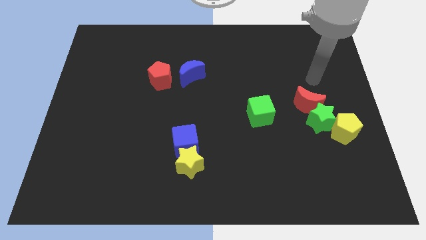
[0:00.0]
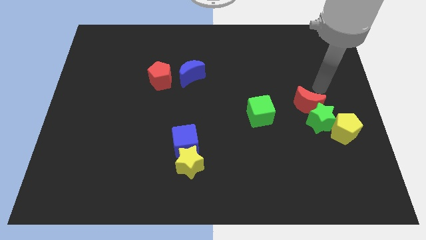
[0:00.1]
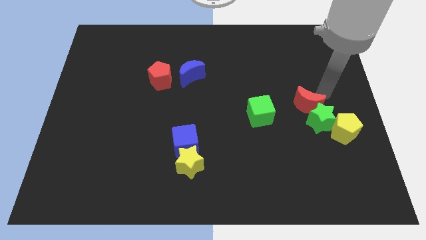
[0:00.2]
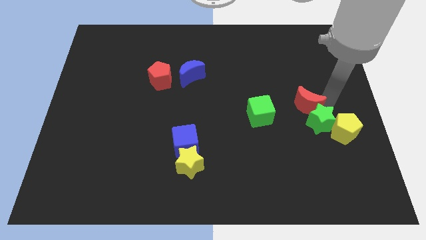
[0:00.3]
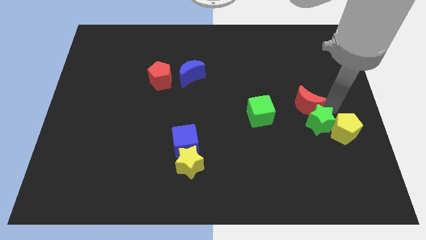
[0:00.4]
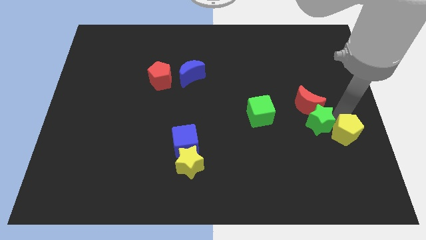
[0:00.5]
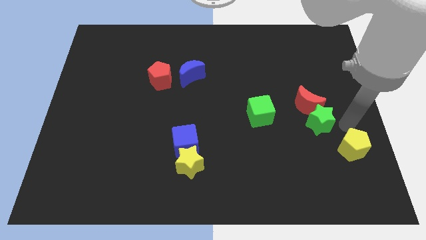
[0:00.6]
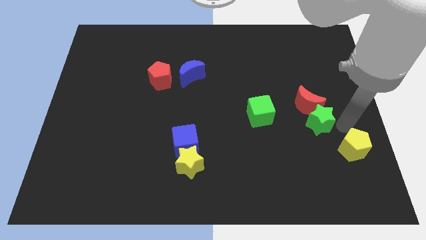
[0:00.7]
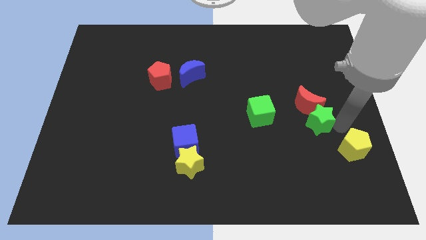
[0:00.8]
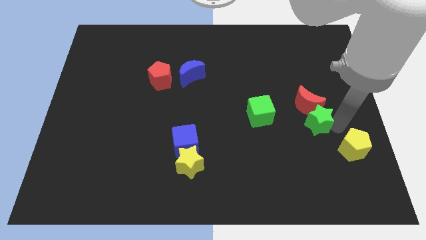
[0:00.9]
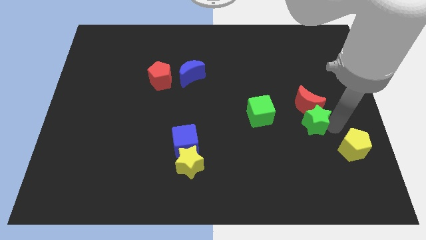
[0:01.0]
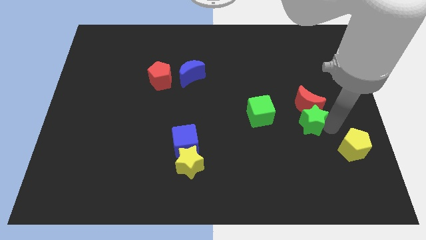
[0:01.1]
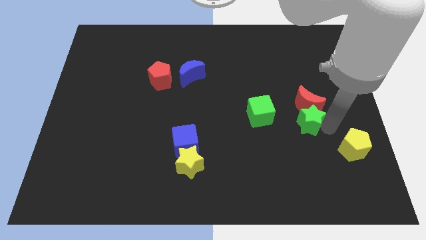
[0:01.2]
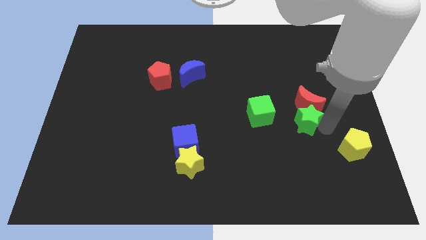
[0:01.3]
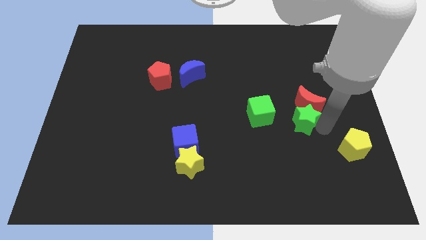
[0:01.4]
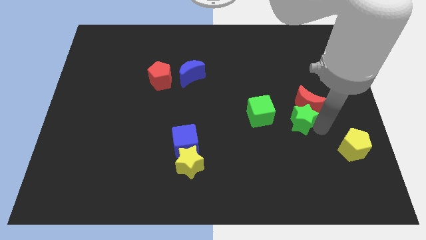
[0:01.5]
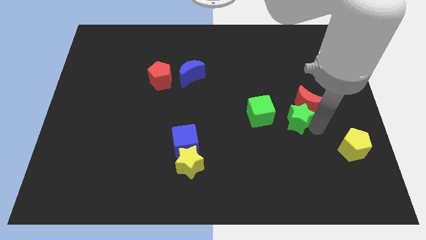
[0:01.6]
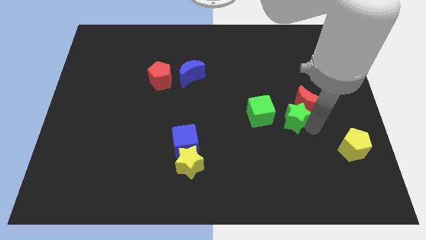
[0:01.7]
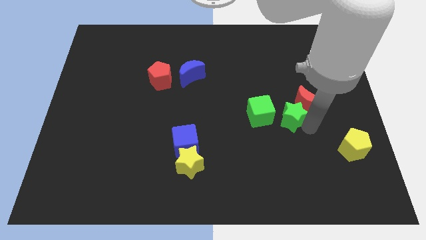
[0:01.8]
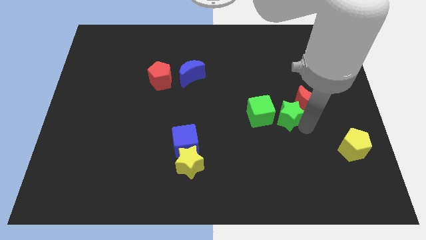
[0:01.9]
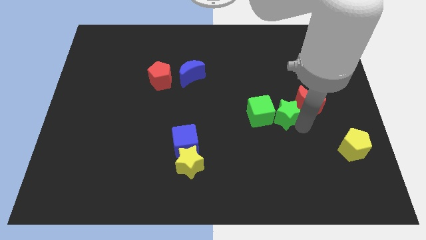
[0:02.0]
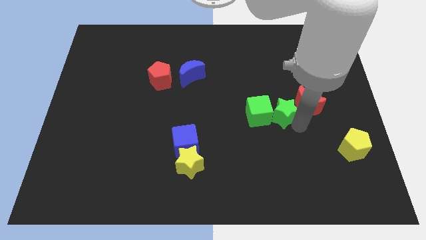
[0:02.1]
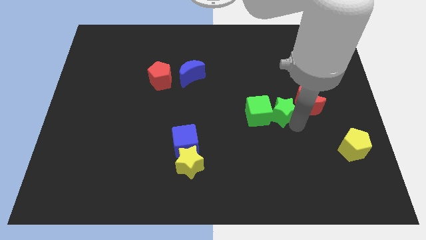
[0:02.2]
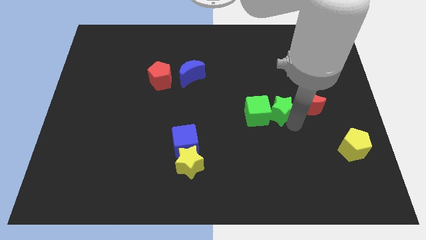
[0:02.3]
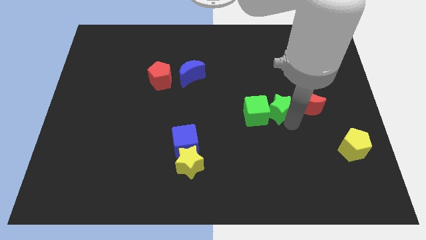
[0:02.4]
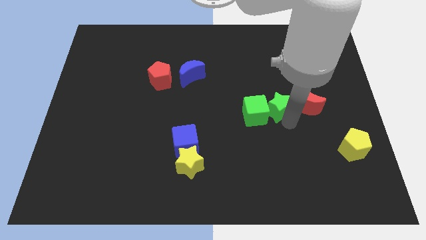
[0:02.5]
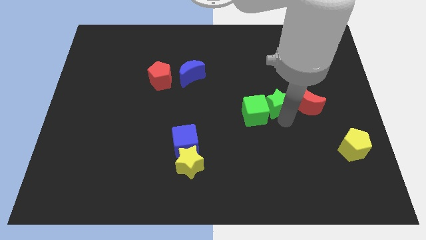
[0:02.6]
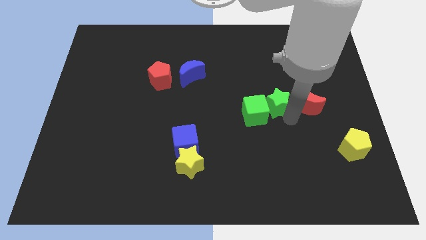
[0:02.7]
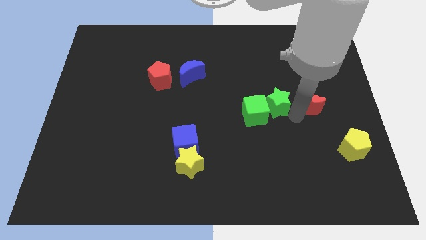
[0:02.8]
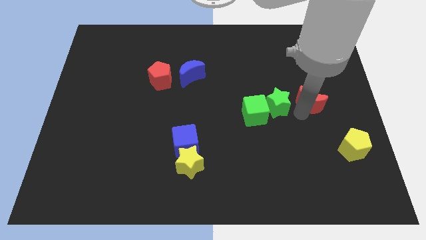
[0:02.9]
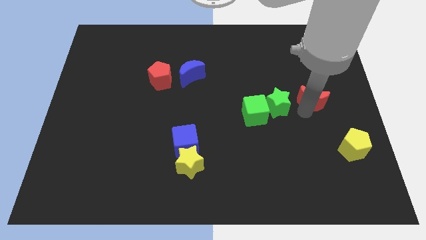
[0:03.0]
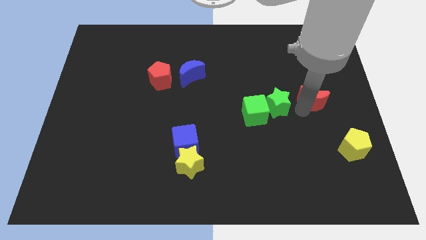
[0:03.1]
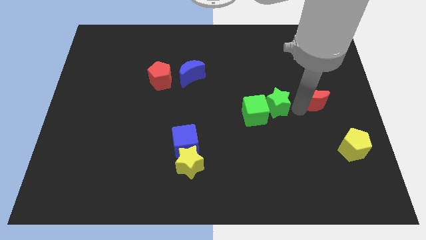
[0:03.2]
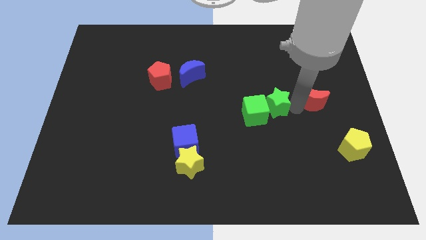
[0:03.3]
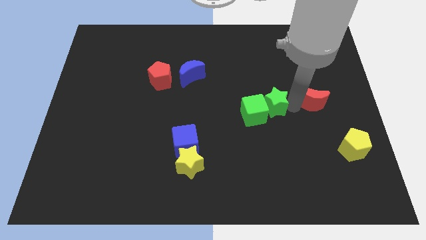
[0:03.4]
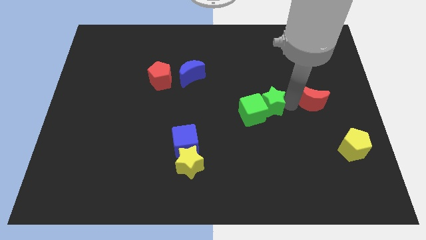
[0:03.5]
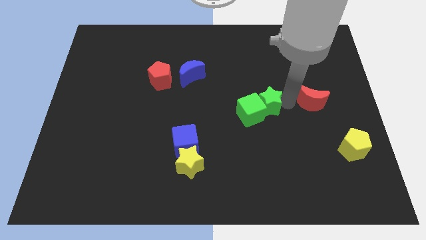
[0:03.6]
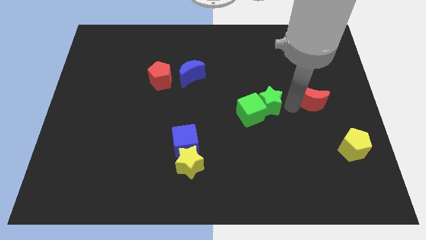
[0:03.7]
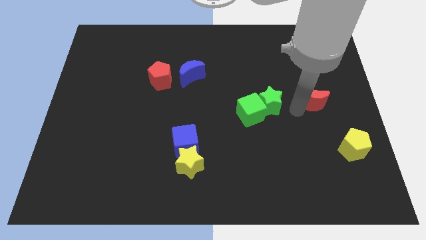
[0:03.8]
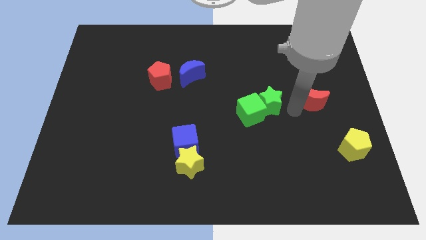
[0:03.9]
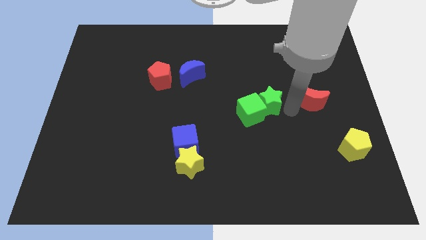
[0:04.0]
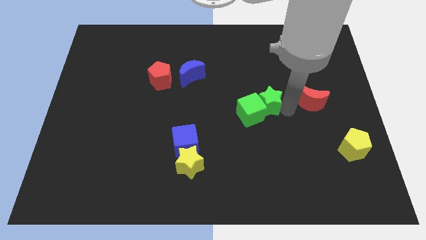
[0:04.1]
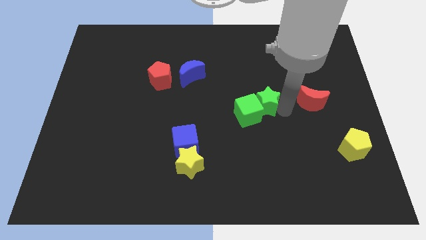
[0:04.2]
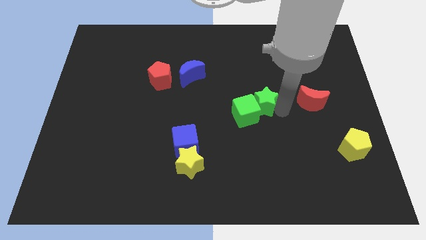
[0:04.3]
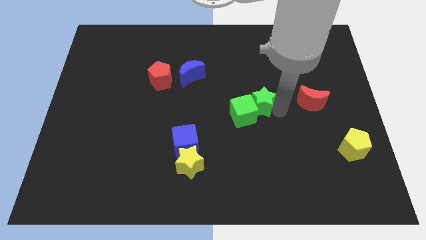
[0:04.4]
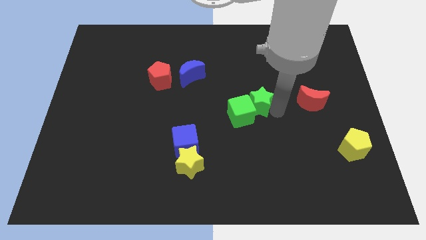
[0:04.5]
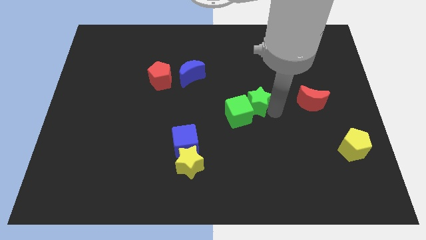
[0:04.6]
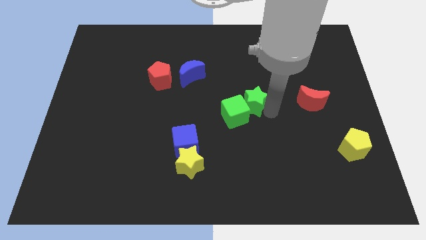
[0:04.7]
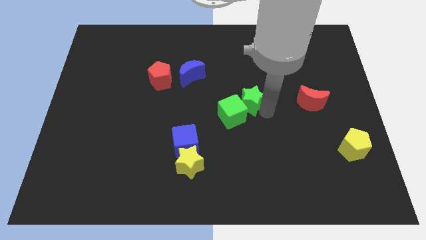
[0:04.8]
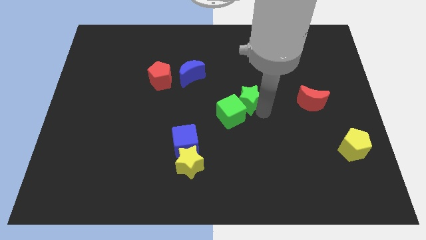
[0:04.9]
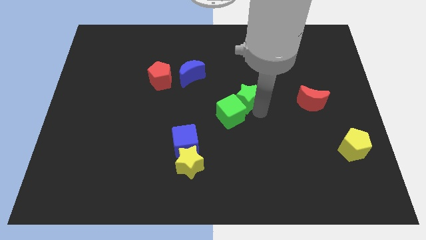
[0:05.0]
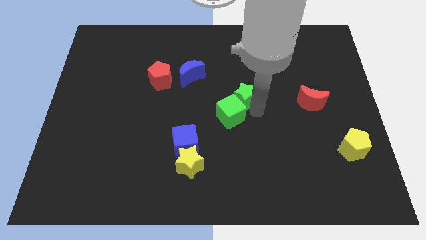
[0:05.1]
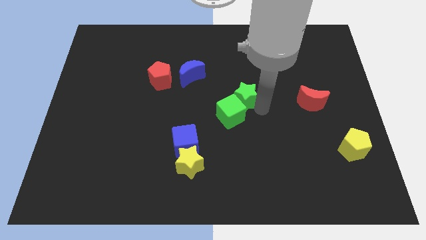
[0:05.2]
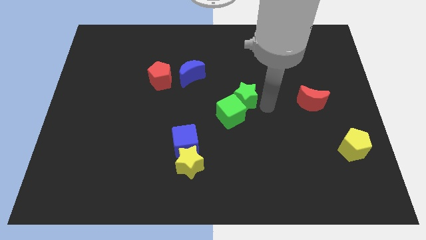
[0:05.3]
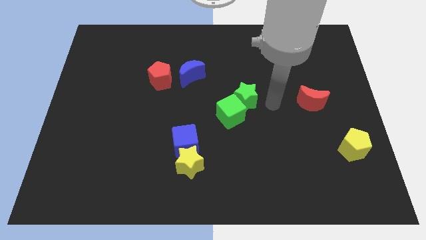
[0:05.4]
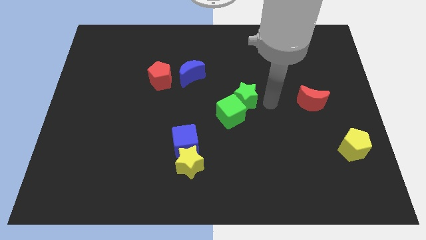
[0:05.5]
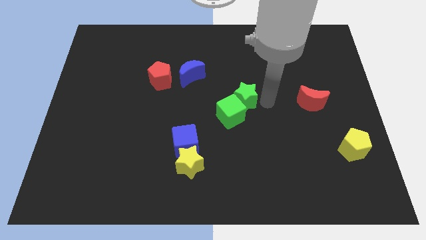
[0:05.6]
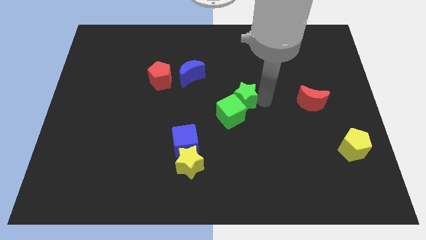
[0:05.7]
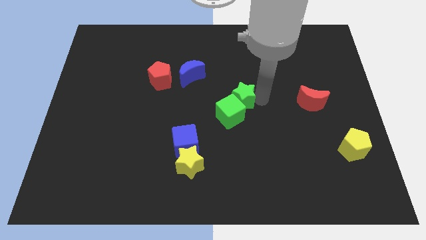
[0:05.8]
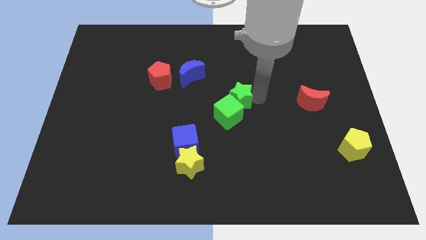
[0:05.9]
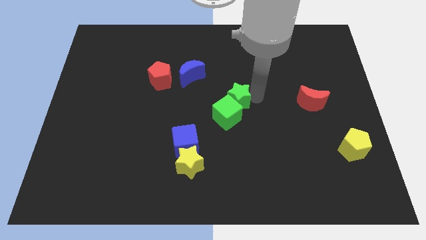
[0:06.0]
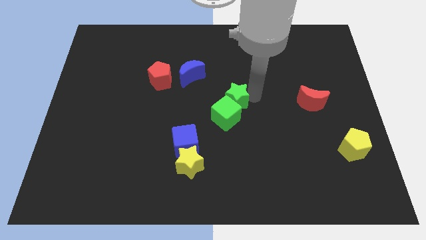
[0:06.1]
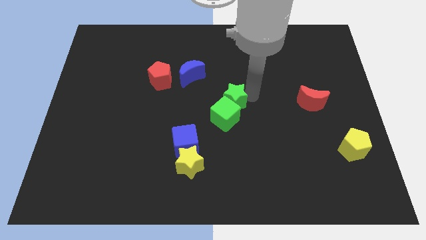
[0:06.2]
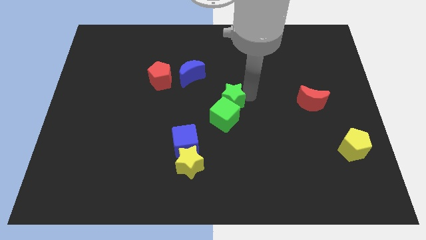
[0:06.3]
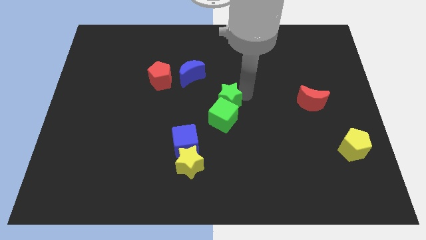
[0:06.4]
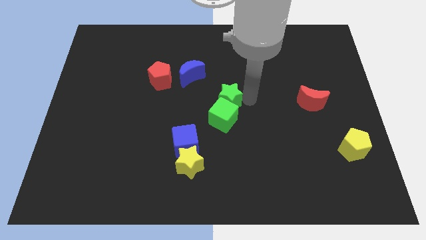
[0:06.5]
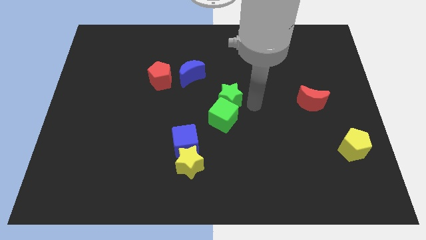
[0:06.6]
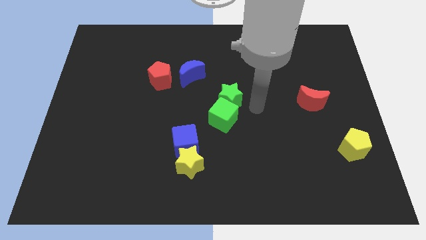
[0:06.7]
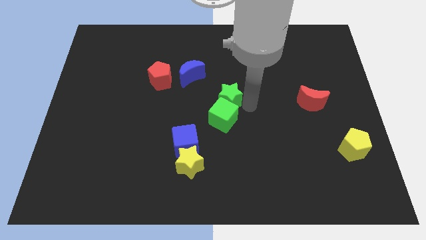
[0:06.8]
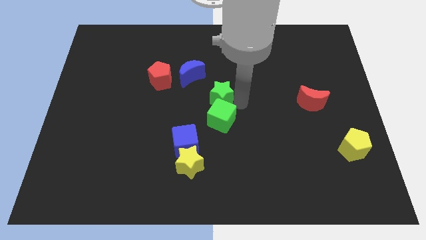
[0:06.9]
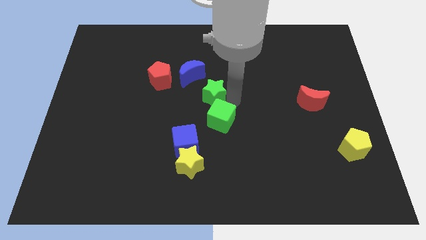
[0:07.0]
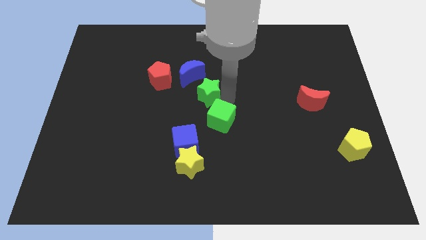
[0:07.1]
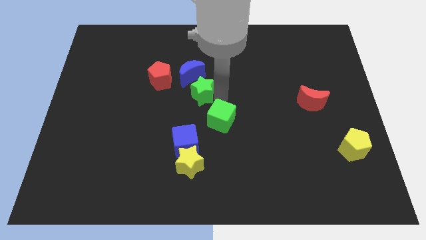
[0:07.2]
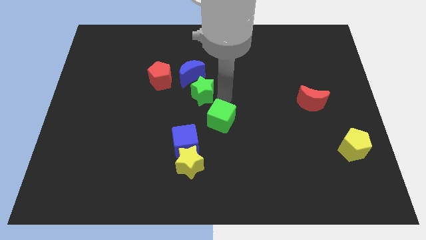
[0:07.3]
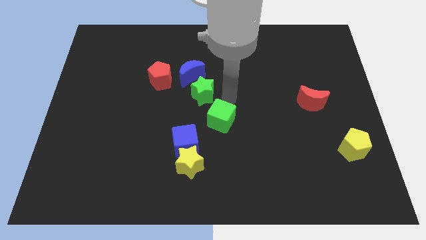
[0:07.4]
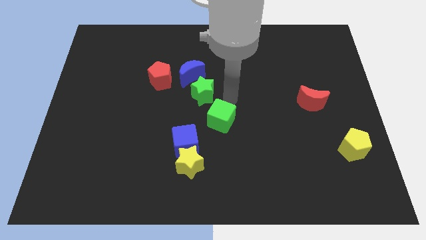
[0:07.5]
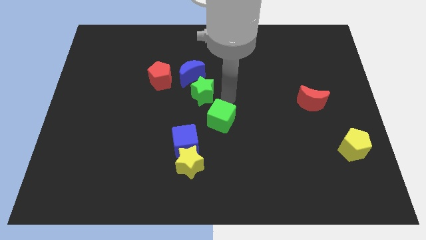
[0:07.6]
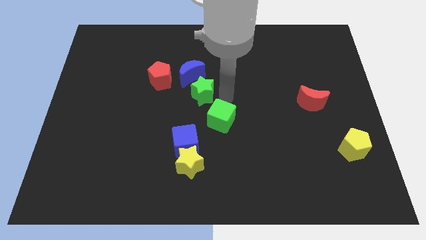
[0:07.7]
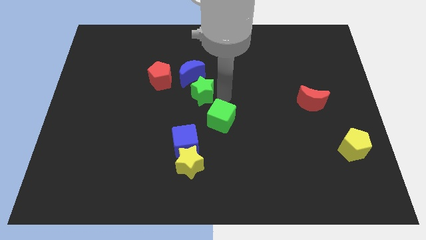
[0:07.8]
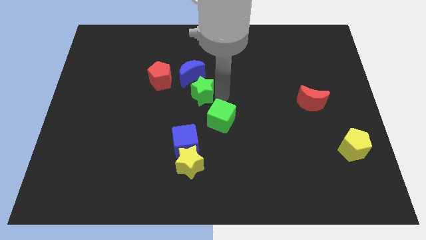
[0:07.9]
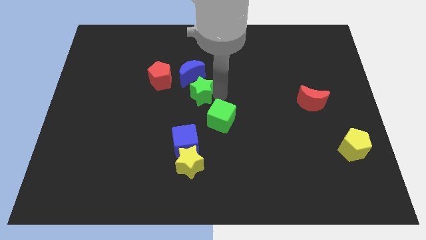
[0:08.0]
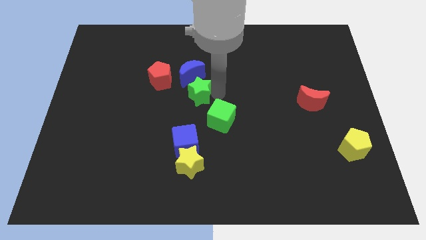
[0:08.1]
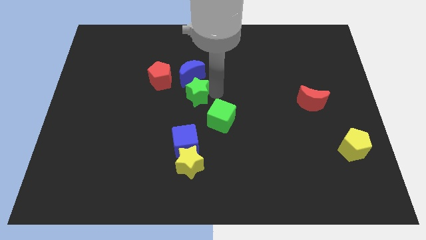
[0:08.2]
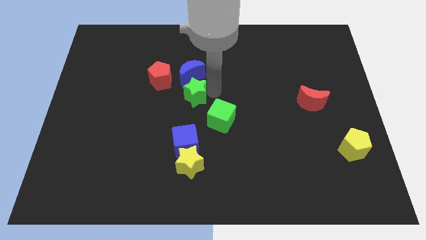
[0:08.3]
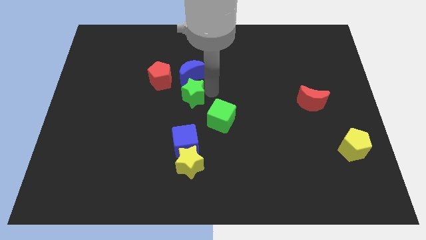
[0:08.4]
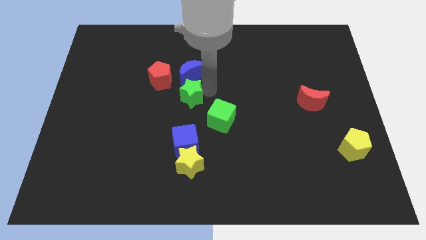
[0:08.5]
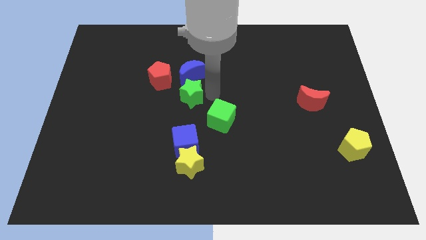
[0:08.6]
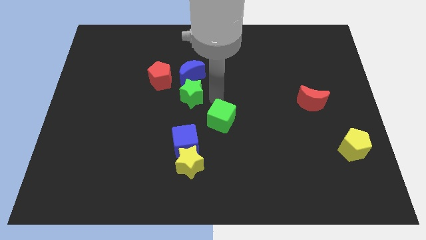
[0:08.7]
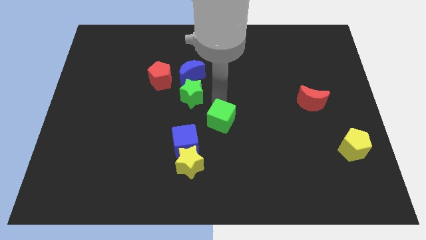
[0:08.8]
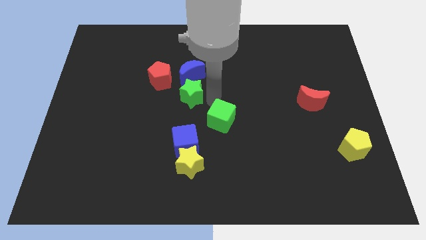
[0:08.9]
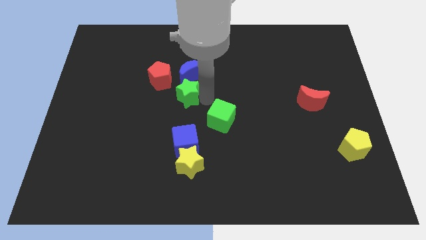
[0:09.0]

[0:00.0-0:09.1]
push the green star diagonally down and to the left of the blue moon
